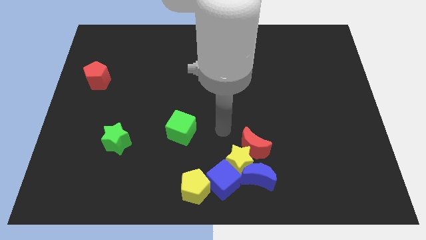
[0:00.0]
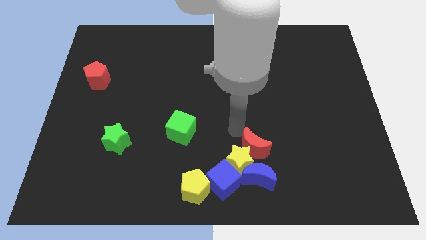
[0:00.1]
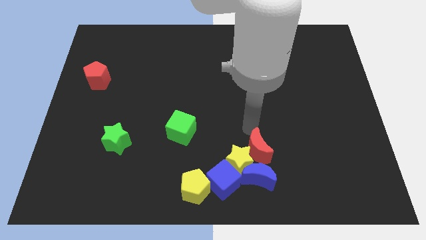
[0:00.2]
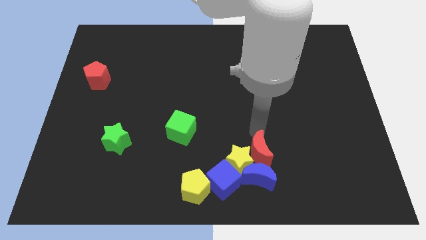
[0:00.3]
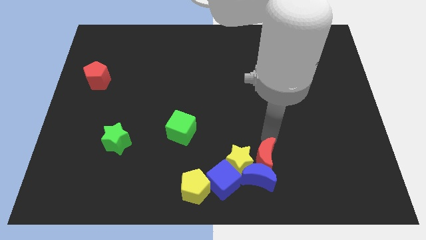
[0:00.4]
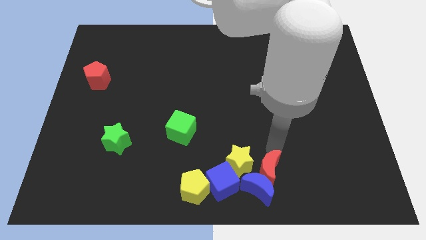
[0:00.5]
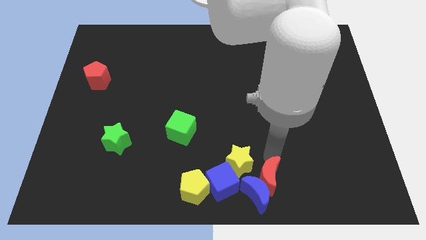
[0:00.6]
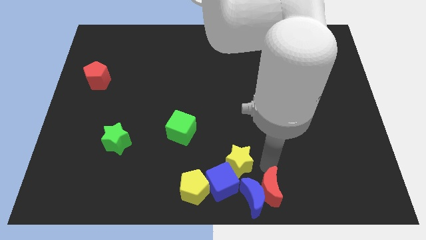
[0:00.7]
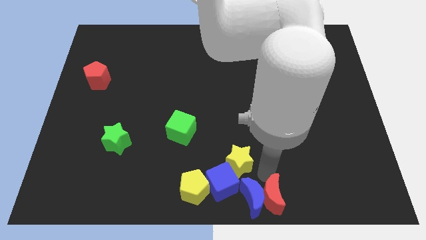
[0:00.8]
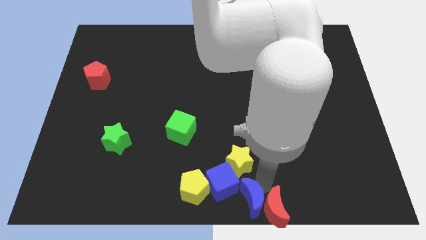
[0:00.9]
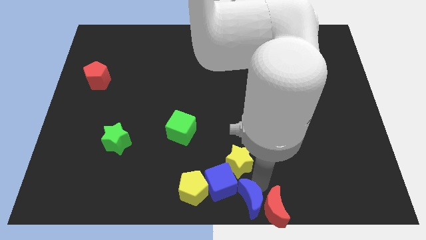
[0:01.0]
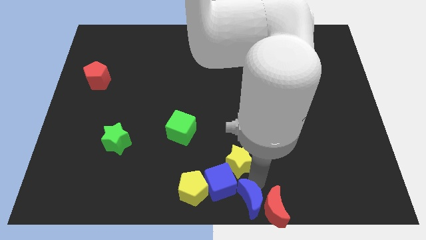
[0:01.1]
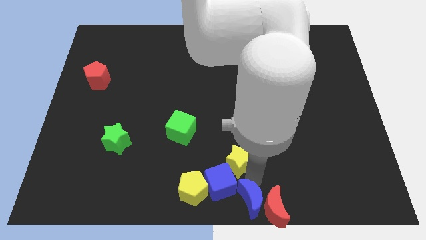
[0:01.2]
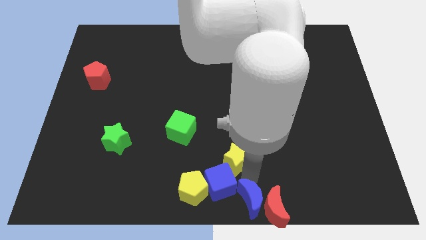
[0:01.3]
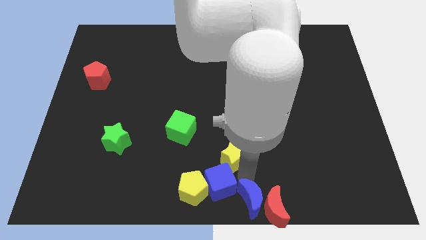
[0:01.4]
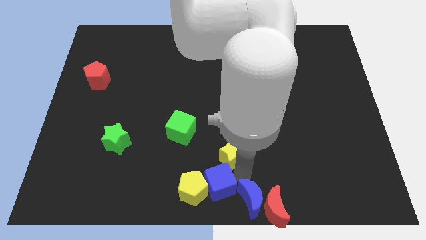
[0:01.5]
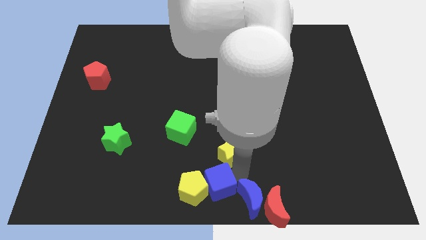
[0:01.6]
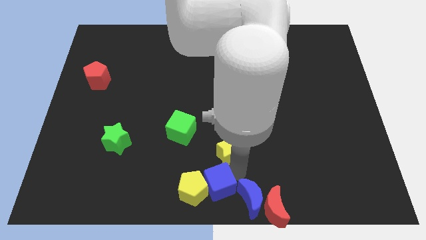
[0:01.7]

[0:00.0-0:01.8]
separate the yellow star from the clump

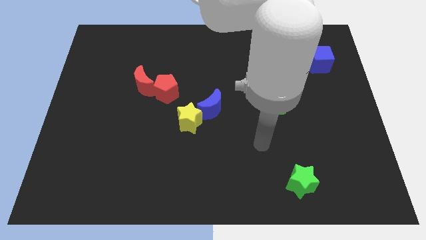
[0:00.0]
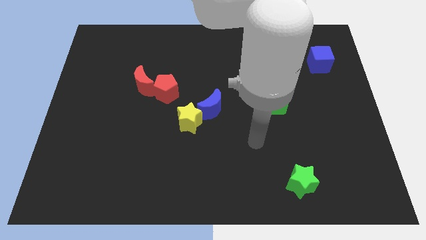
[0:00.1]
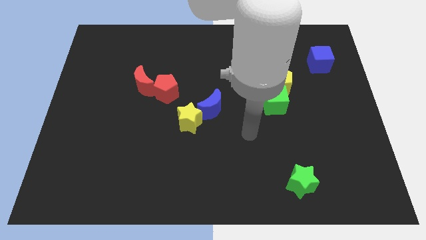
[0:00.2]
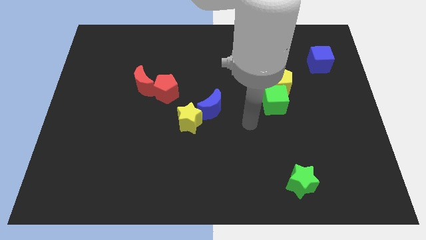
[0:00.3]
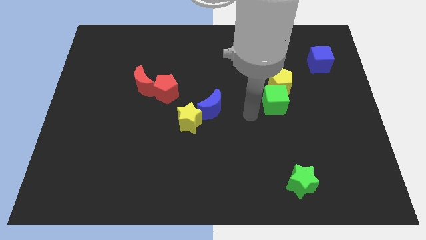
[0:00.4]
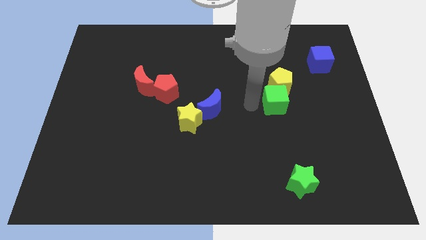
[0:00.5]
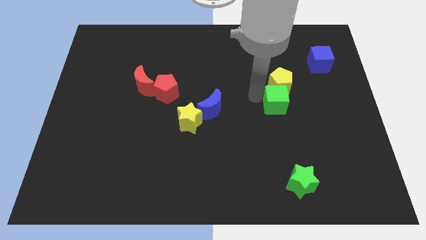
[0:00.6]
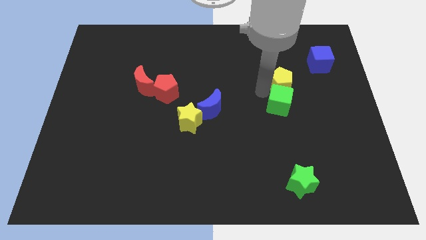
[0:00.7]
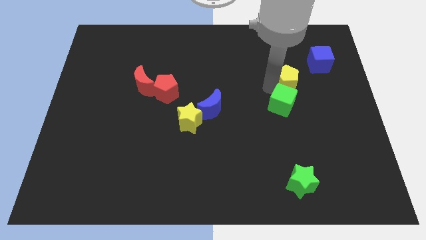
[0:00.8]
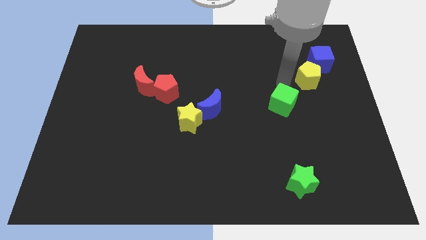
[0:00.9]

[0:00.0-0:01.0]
separate the green cube from the yellow pentagon

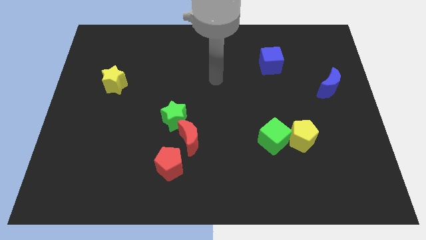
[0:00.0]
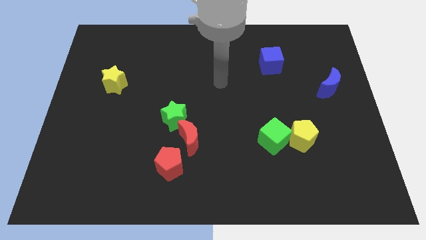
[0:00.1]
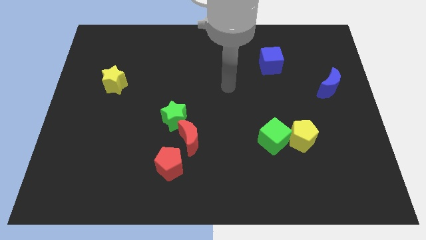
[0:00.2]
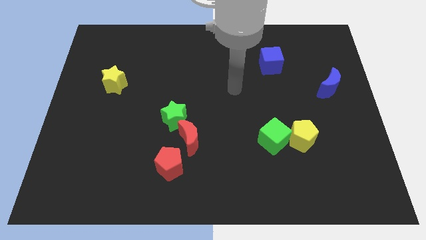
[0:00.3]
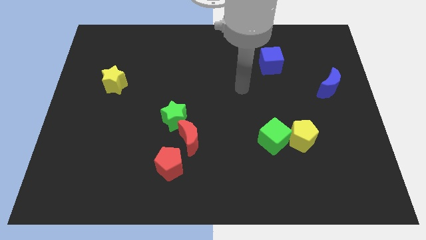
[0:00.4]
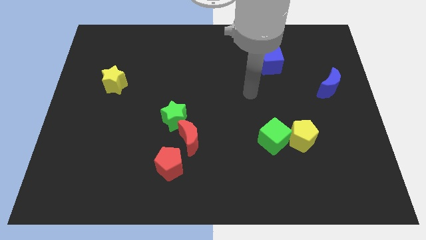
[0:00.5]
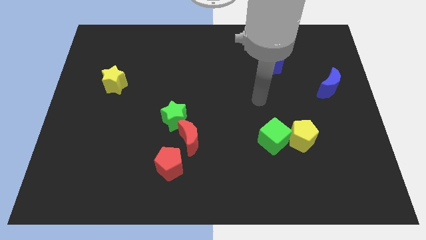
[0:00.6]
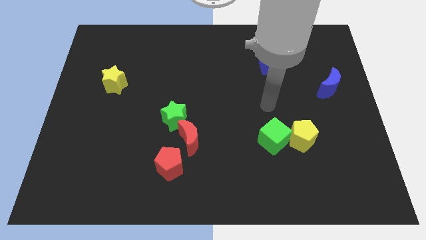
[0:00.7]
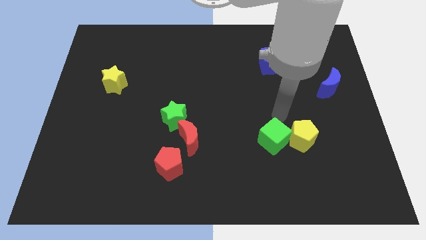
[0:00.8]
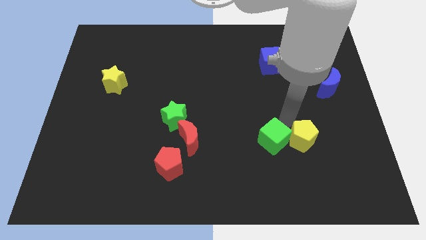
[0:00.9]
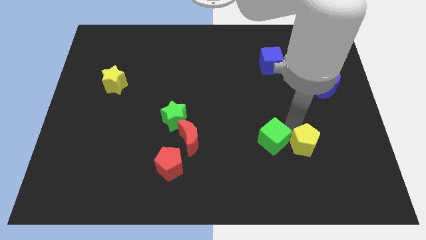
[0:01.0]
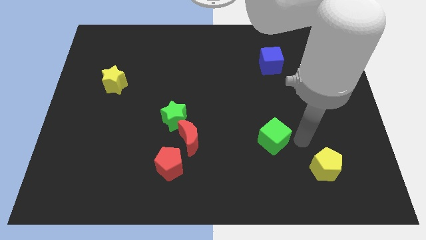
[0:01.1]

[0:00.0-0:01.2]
move the green cube away from the yellow pentagon

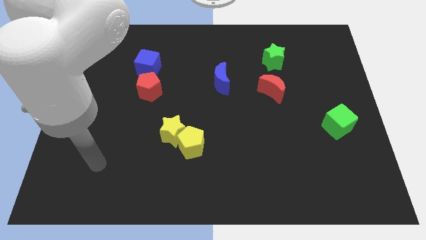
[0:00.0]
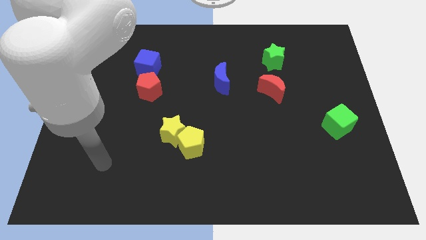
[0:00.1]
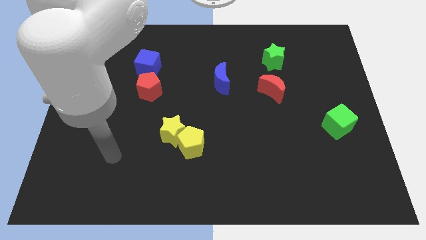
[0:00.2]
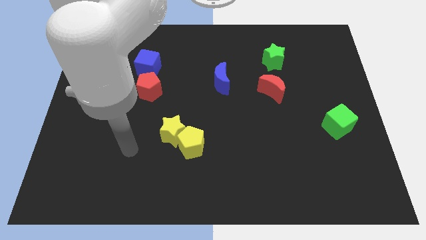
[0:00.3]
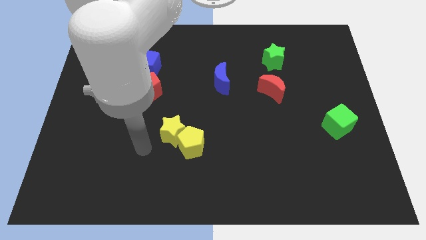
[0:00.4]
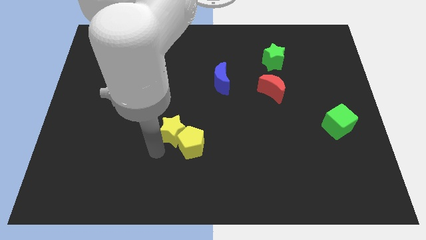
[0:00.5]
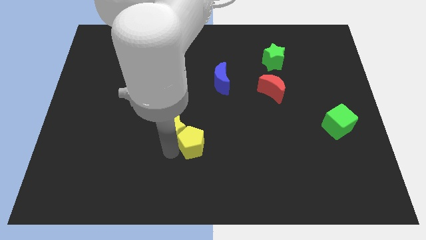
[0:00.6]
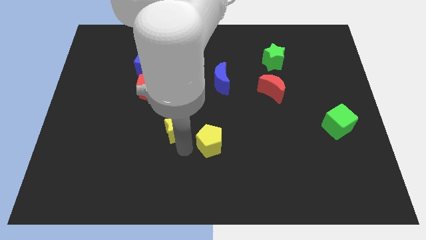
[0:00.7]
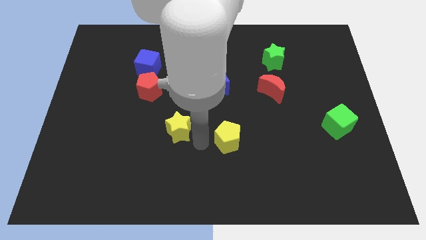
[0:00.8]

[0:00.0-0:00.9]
separate the yellow star from the yellow pentagon

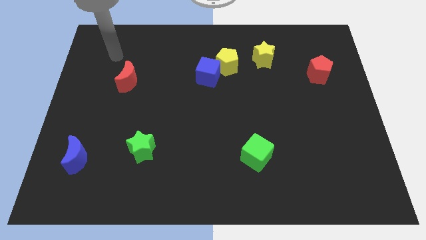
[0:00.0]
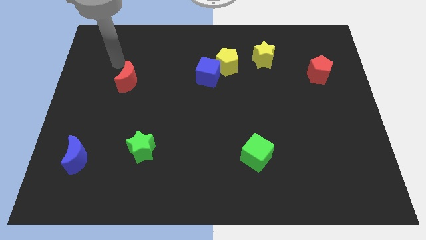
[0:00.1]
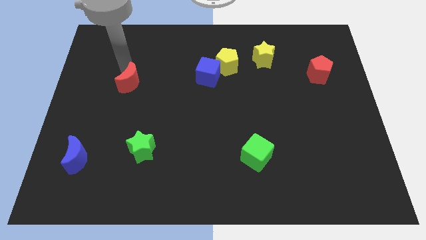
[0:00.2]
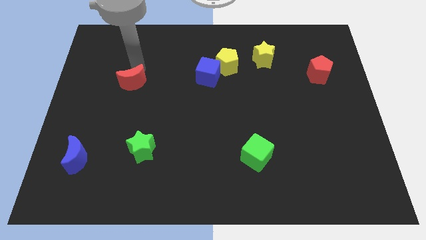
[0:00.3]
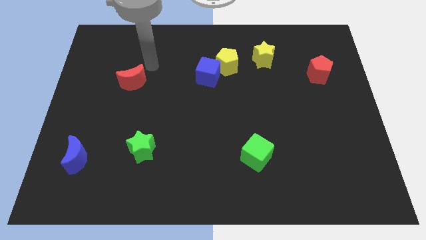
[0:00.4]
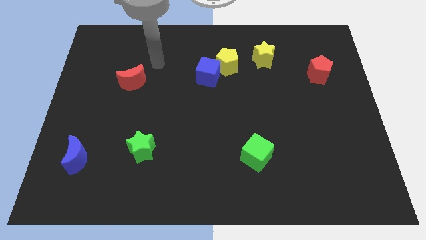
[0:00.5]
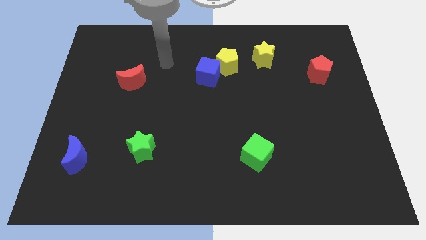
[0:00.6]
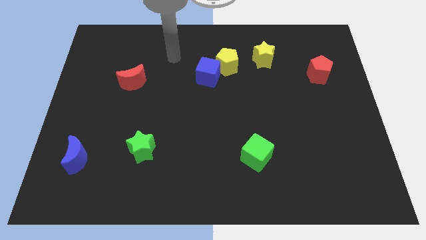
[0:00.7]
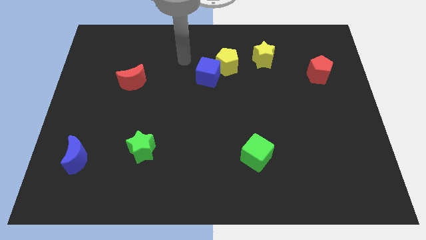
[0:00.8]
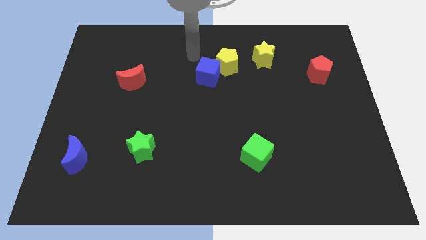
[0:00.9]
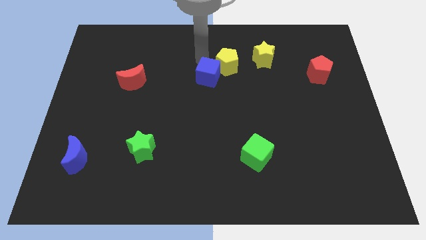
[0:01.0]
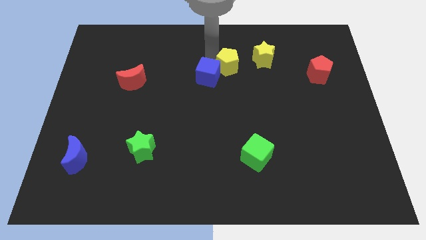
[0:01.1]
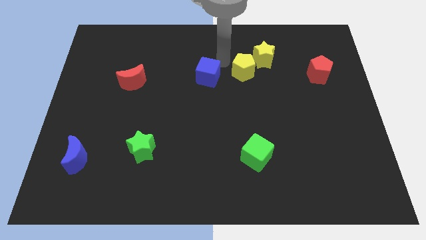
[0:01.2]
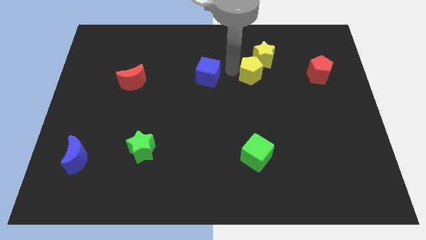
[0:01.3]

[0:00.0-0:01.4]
pull the blue cube apart from the yellow pentagon

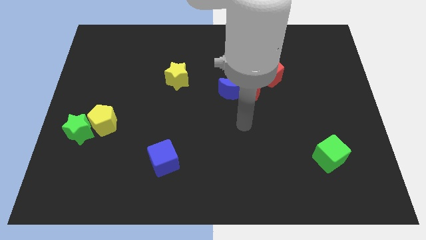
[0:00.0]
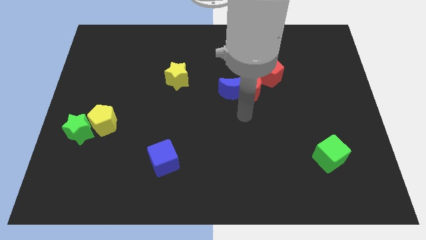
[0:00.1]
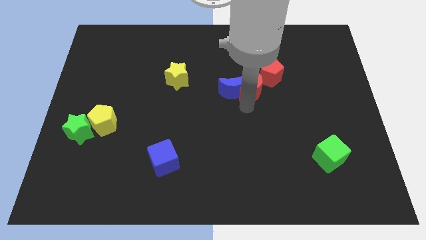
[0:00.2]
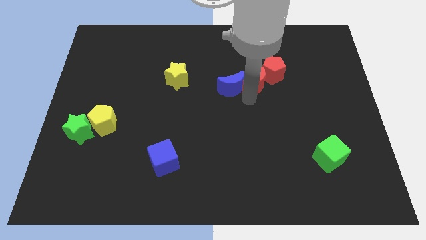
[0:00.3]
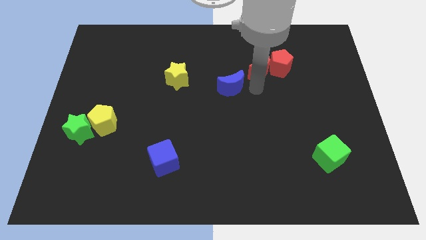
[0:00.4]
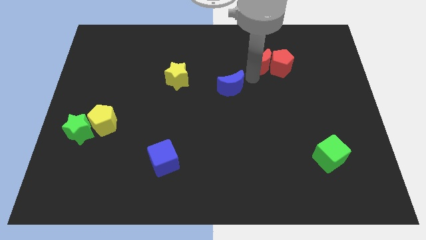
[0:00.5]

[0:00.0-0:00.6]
separate the blue moon from the red moon

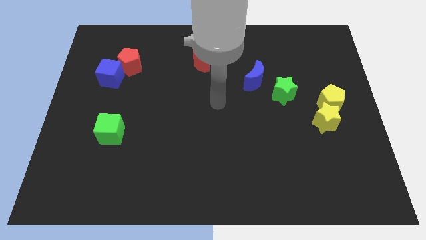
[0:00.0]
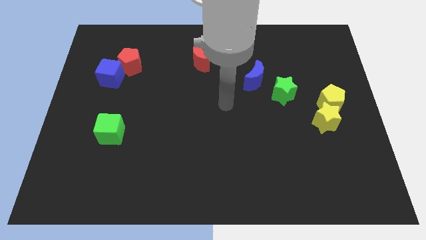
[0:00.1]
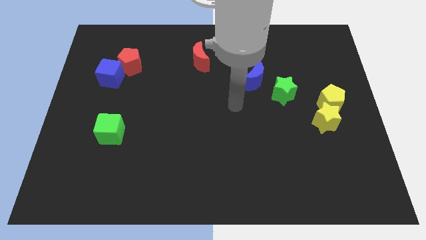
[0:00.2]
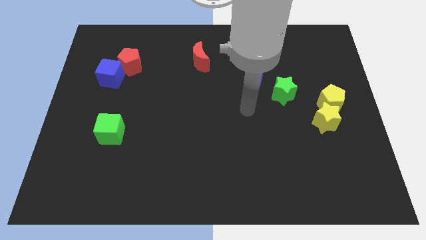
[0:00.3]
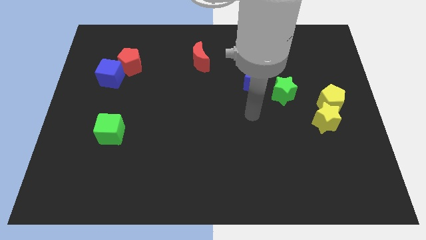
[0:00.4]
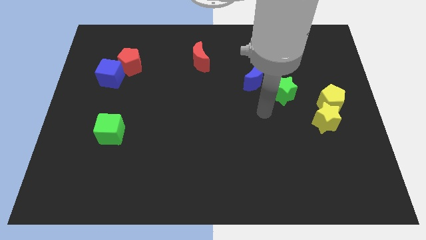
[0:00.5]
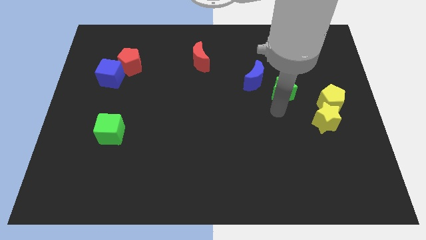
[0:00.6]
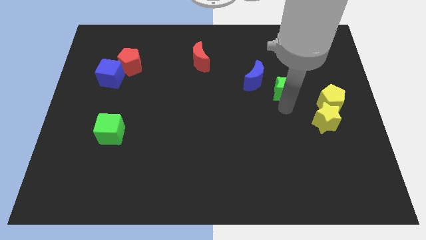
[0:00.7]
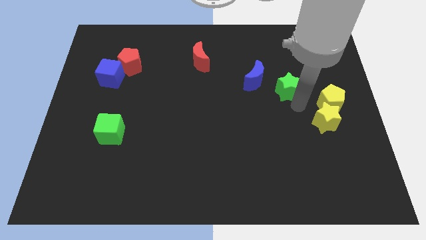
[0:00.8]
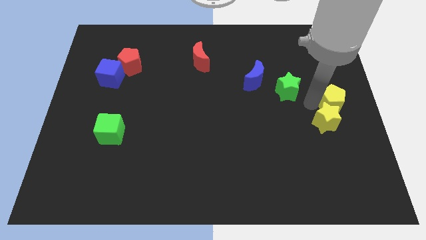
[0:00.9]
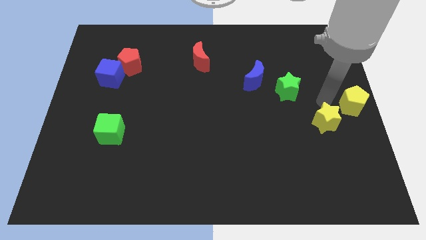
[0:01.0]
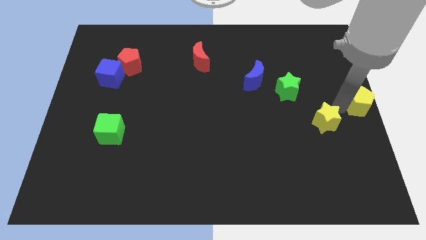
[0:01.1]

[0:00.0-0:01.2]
move the yellow star away from the yellow pentagon

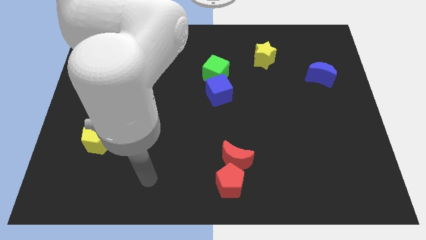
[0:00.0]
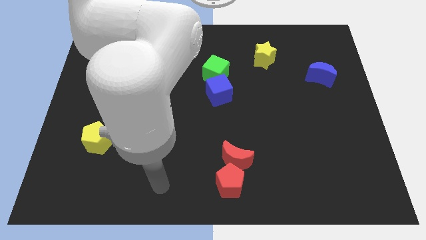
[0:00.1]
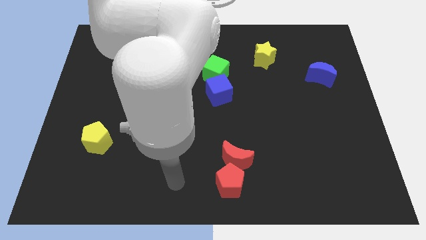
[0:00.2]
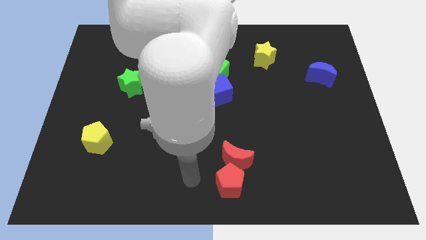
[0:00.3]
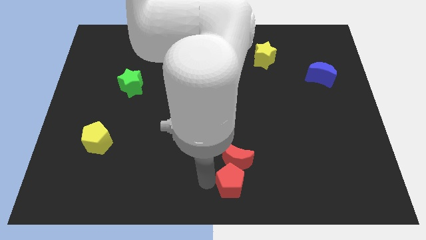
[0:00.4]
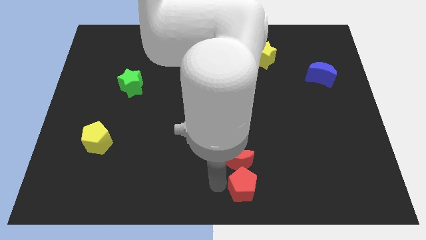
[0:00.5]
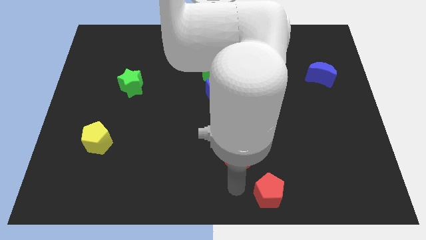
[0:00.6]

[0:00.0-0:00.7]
pull the red moon apart from the red pentagon

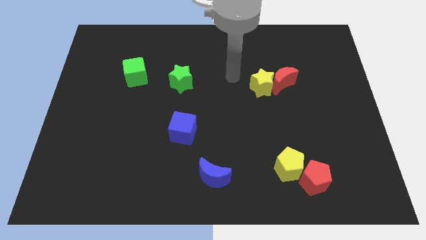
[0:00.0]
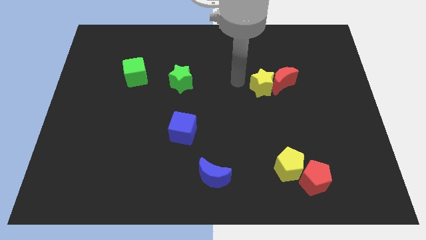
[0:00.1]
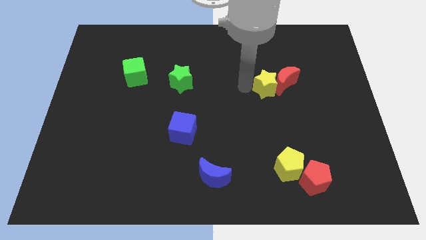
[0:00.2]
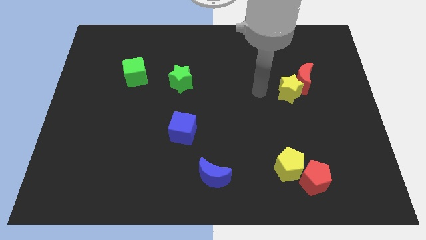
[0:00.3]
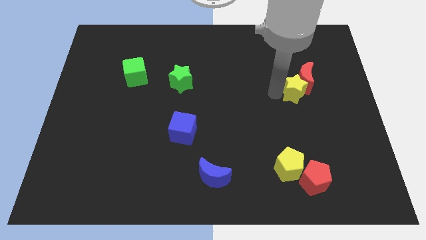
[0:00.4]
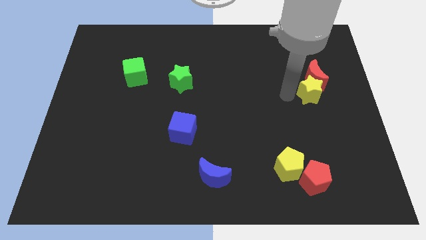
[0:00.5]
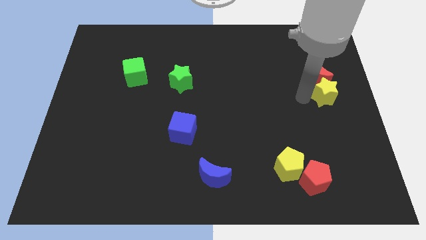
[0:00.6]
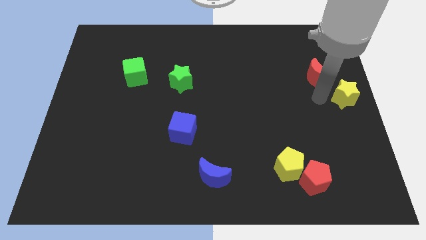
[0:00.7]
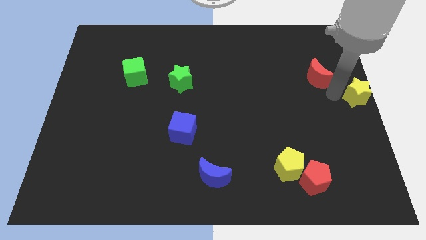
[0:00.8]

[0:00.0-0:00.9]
pull the red moon apart from the yellow star
